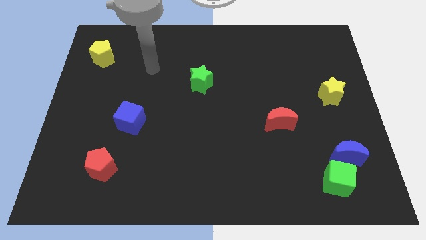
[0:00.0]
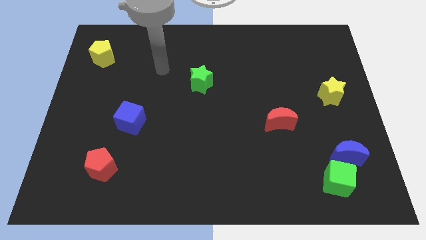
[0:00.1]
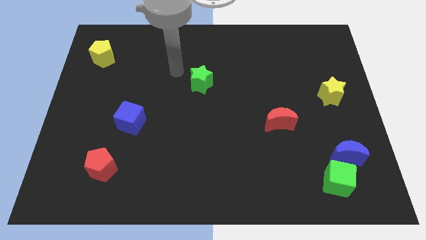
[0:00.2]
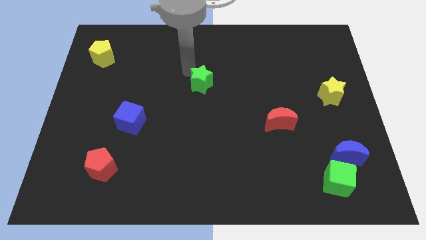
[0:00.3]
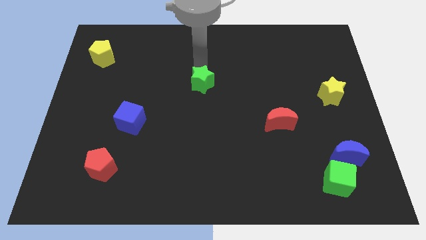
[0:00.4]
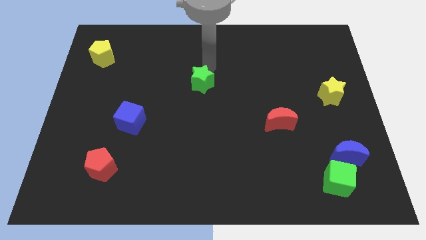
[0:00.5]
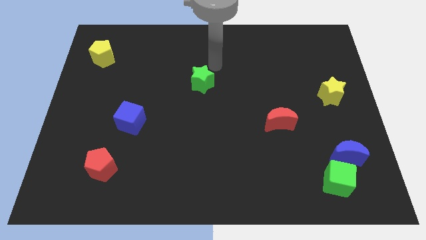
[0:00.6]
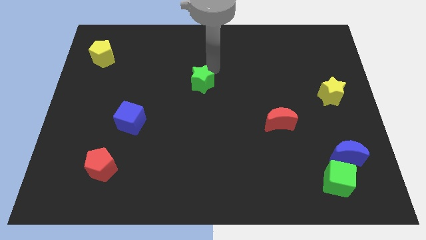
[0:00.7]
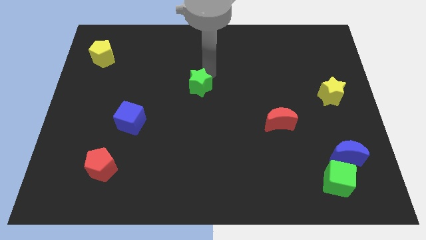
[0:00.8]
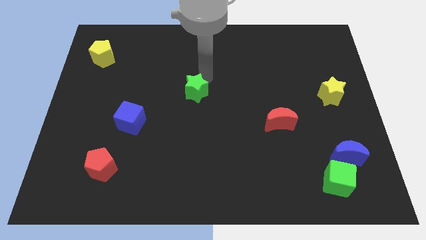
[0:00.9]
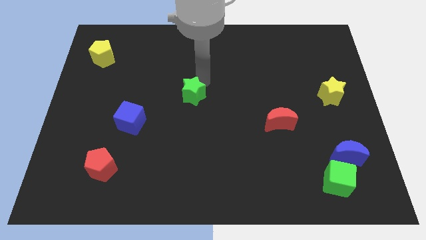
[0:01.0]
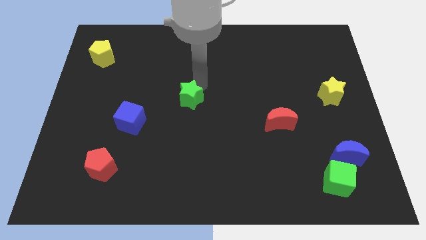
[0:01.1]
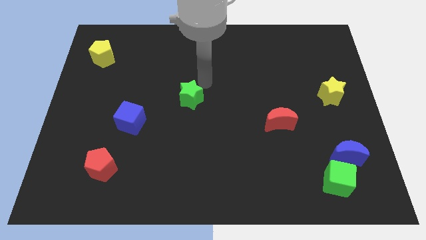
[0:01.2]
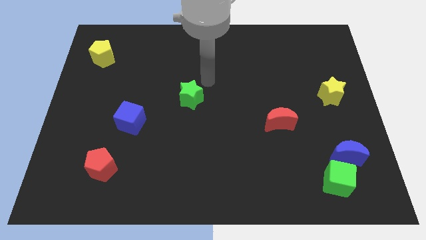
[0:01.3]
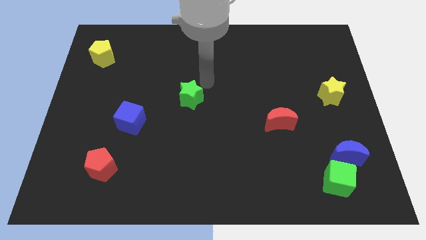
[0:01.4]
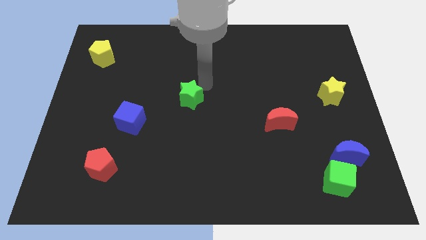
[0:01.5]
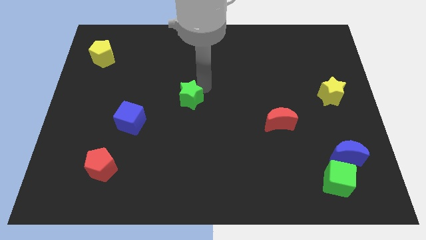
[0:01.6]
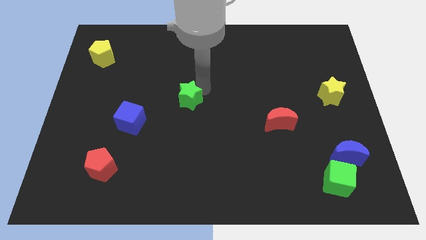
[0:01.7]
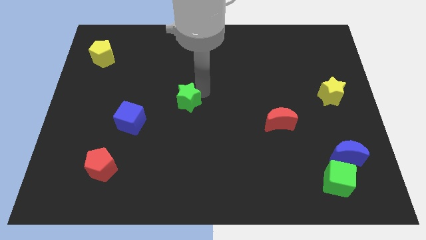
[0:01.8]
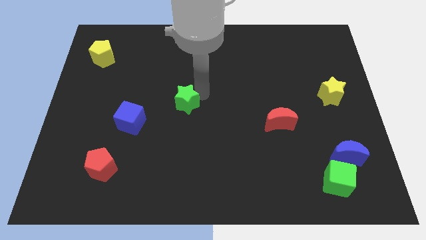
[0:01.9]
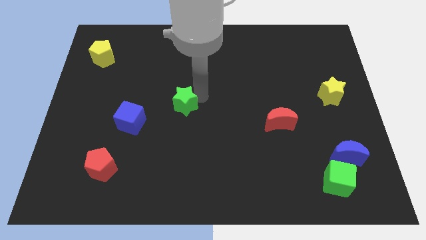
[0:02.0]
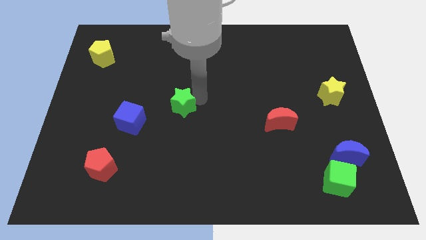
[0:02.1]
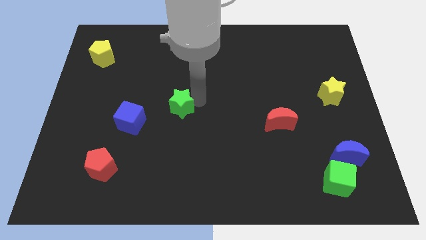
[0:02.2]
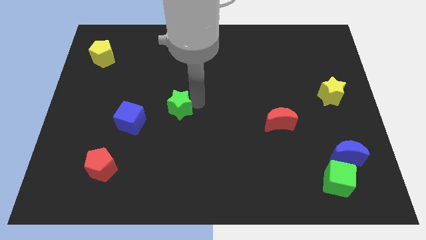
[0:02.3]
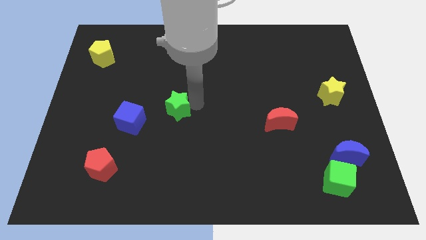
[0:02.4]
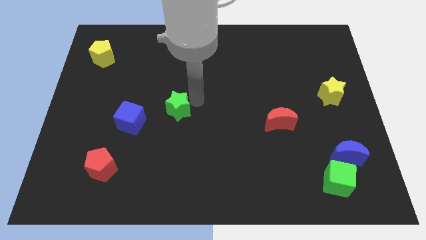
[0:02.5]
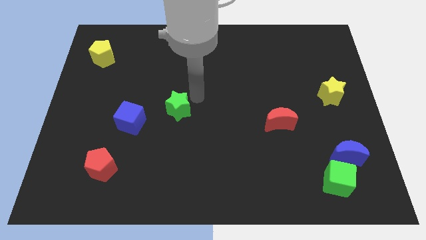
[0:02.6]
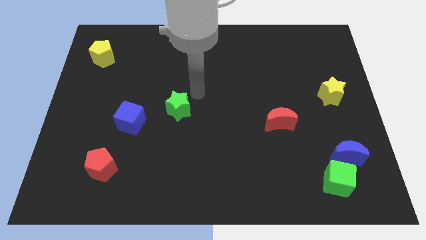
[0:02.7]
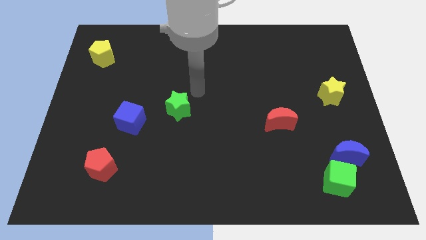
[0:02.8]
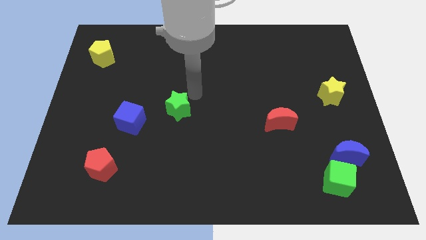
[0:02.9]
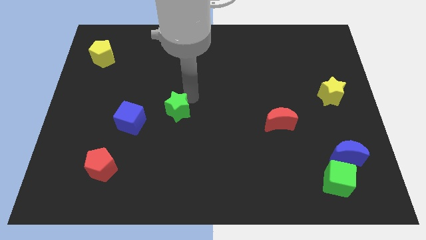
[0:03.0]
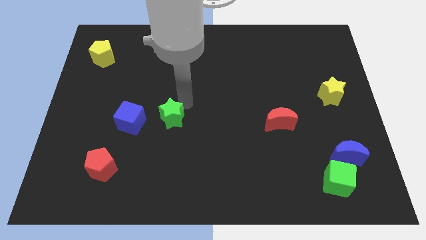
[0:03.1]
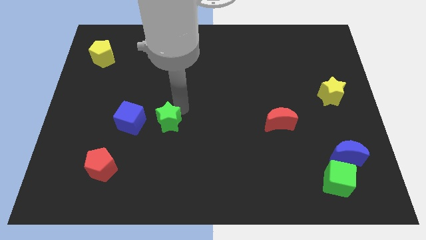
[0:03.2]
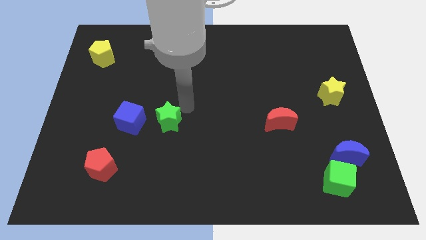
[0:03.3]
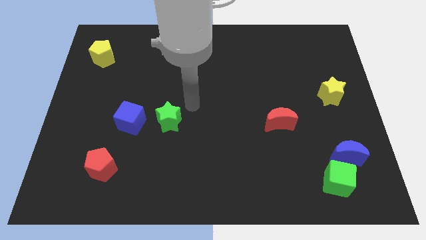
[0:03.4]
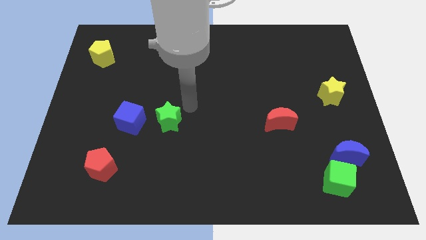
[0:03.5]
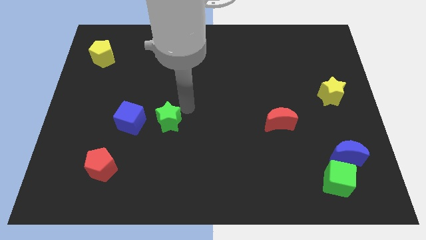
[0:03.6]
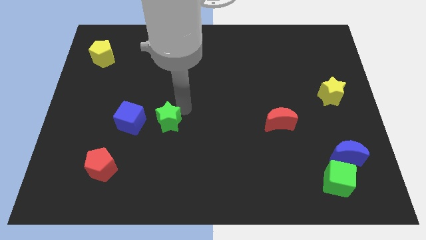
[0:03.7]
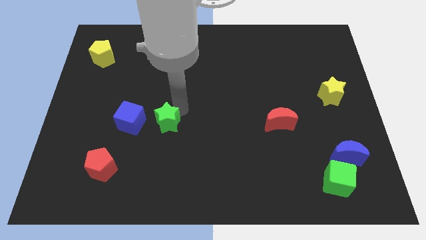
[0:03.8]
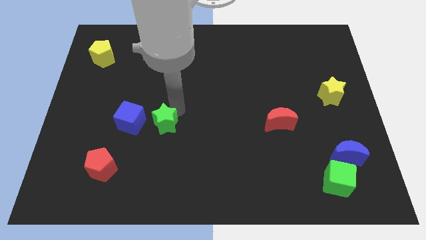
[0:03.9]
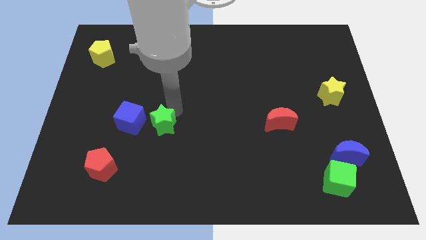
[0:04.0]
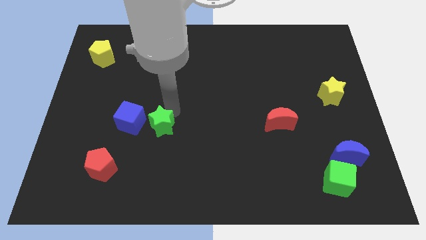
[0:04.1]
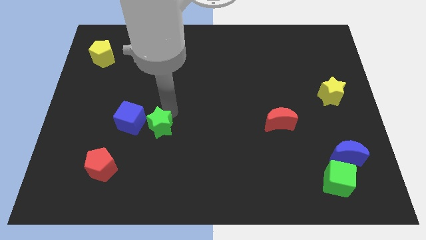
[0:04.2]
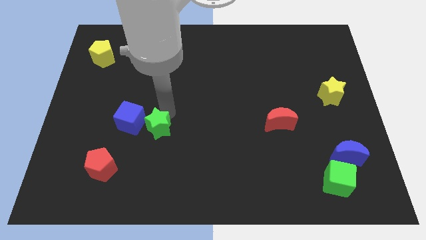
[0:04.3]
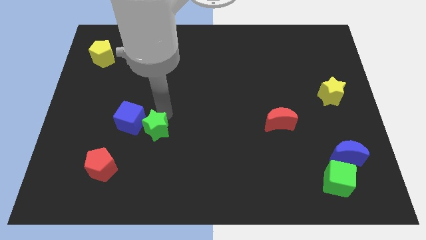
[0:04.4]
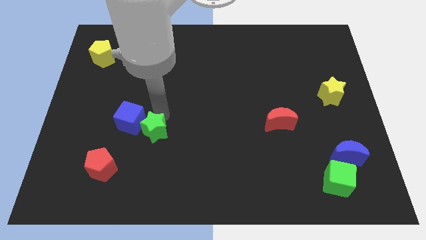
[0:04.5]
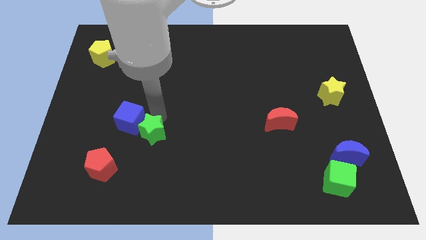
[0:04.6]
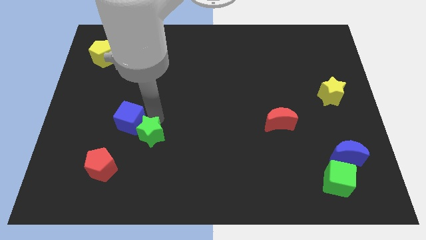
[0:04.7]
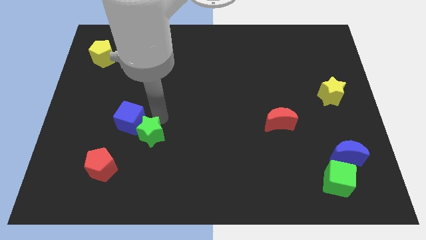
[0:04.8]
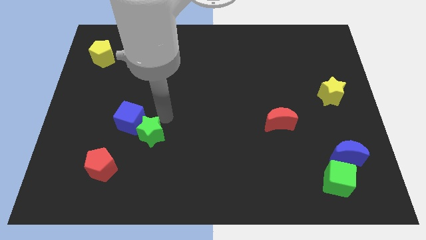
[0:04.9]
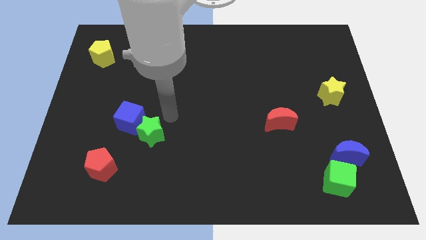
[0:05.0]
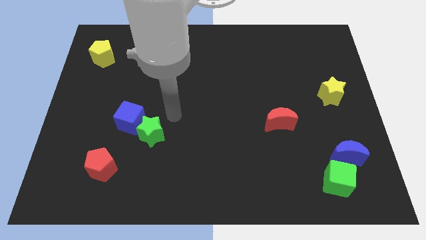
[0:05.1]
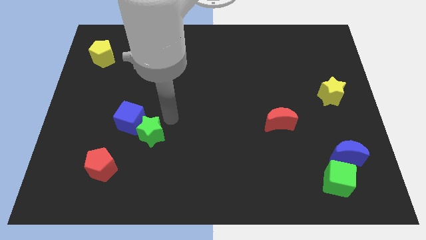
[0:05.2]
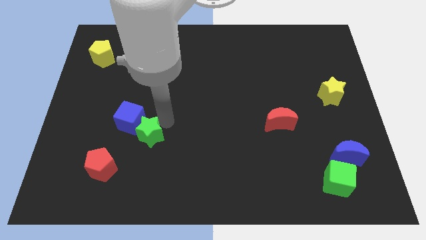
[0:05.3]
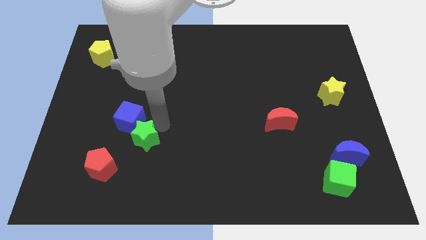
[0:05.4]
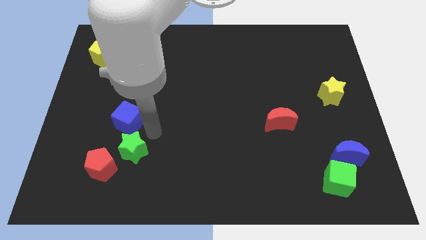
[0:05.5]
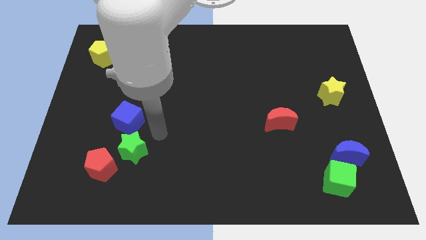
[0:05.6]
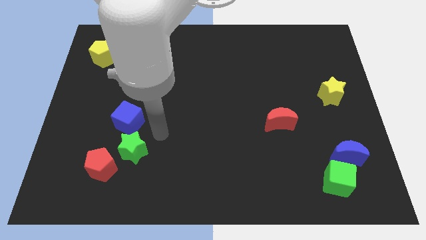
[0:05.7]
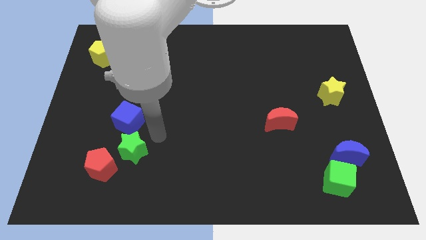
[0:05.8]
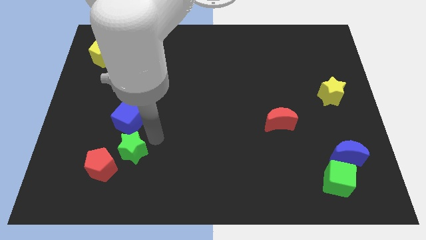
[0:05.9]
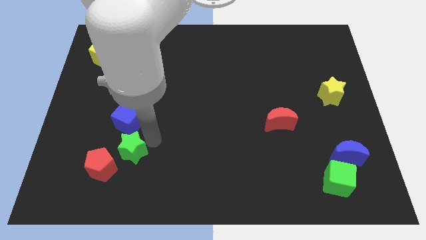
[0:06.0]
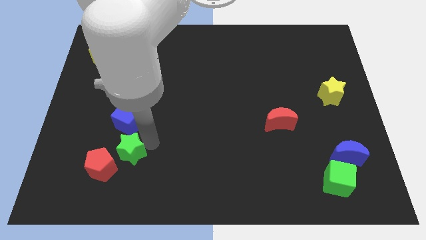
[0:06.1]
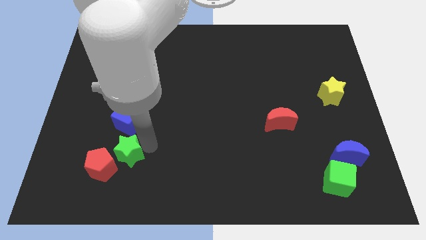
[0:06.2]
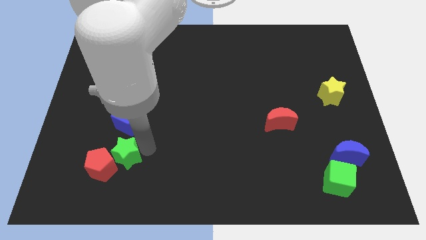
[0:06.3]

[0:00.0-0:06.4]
slide the green star to the red pentagon

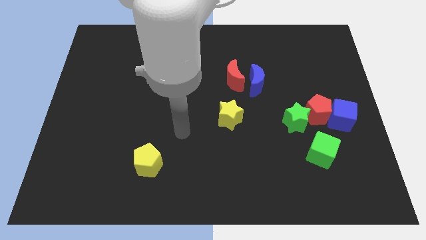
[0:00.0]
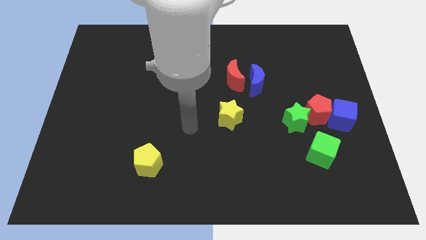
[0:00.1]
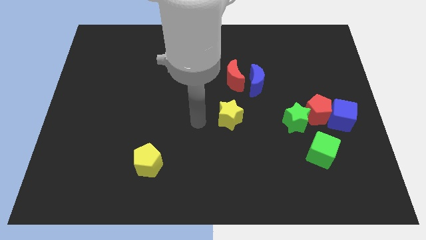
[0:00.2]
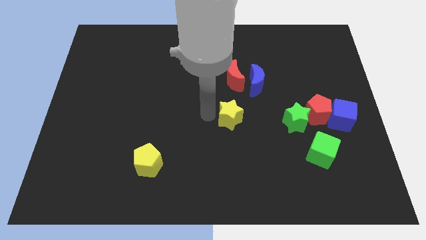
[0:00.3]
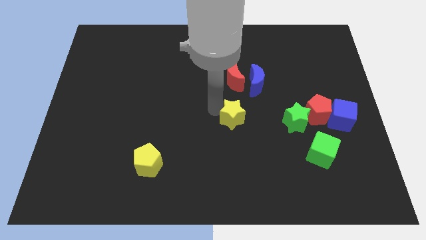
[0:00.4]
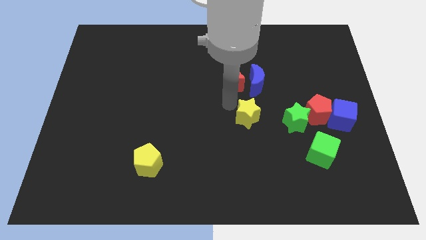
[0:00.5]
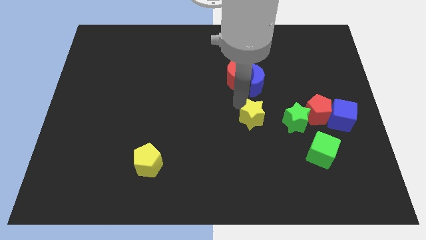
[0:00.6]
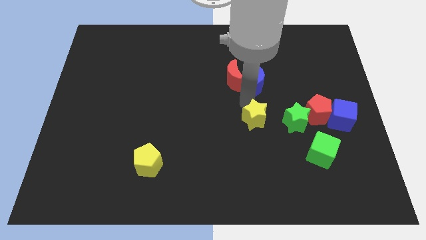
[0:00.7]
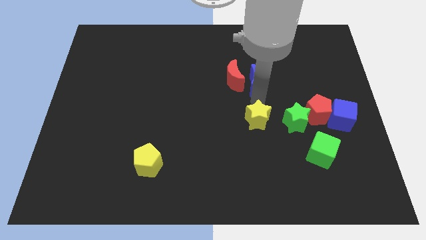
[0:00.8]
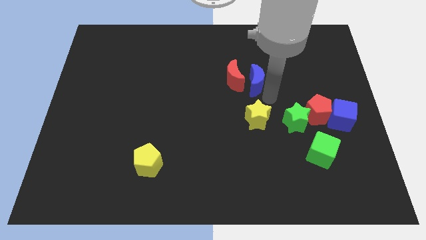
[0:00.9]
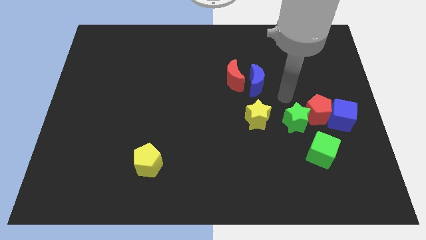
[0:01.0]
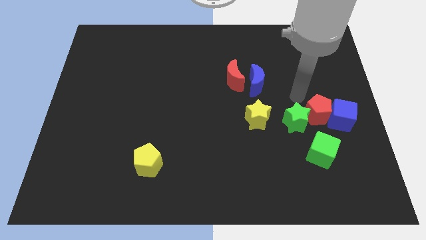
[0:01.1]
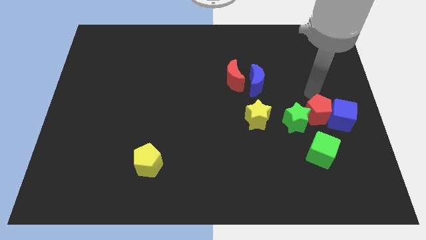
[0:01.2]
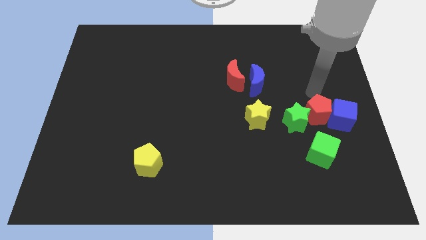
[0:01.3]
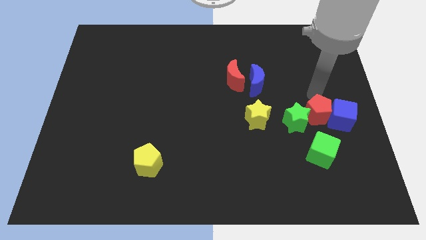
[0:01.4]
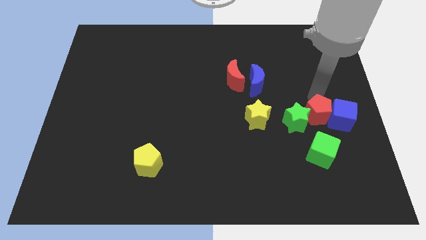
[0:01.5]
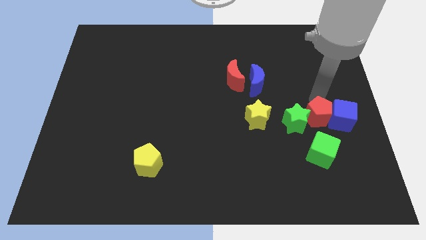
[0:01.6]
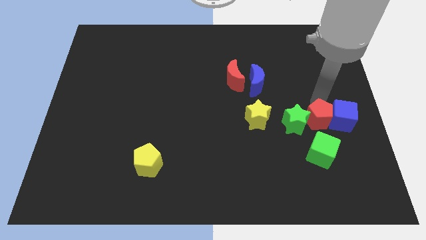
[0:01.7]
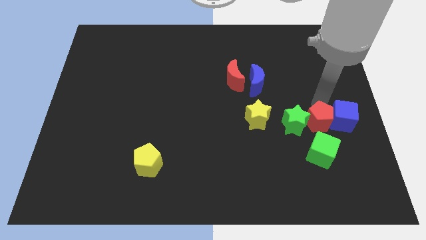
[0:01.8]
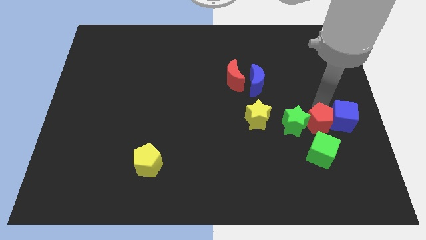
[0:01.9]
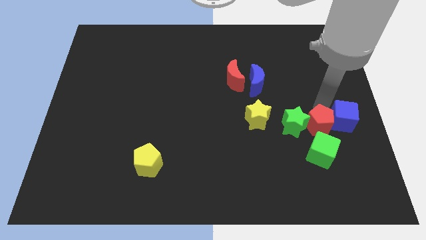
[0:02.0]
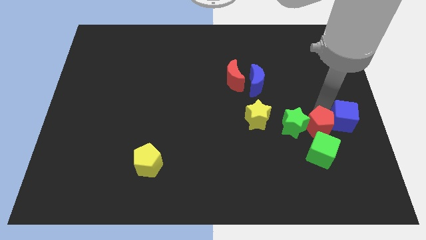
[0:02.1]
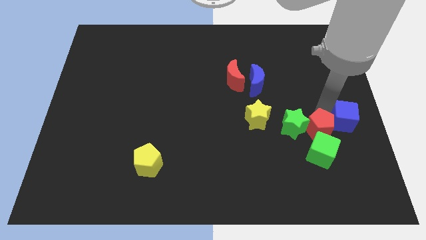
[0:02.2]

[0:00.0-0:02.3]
put the red pentagon close to the green cube
